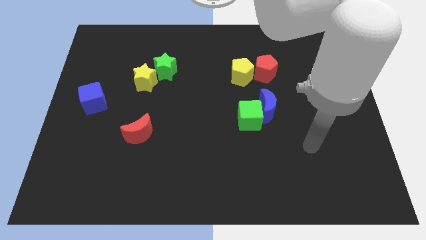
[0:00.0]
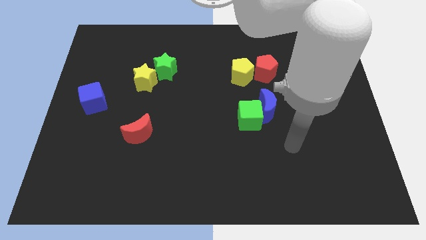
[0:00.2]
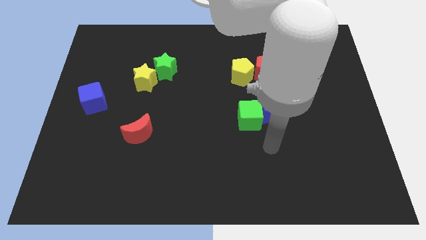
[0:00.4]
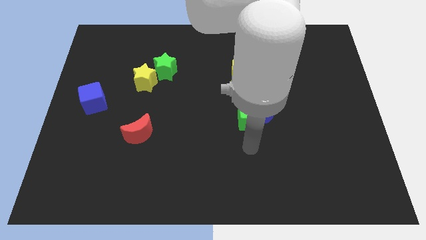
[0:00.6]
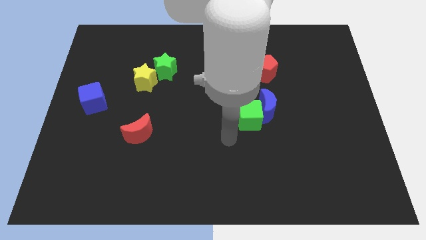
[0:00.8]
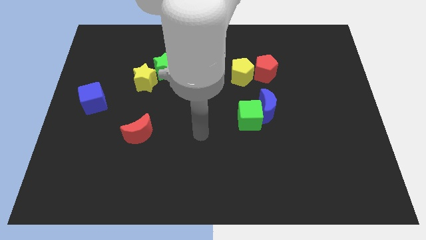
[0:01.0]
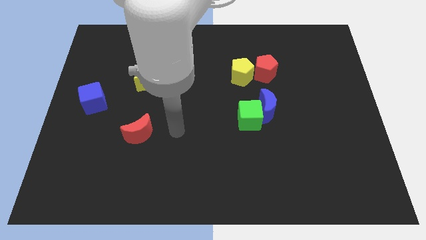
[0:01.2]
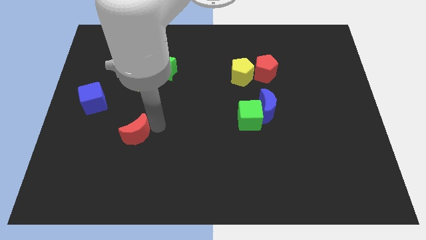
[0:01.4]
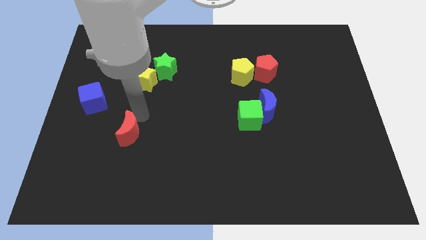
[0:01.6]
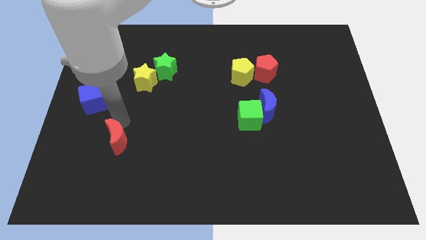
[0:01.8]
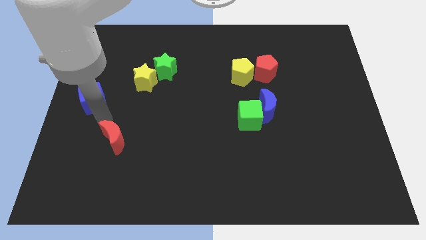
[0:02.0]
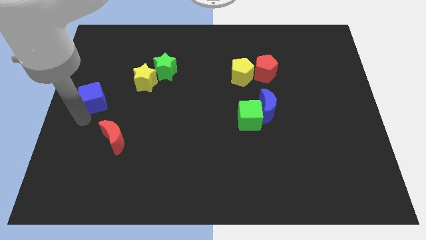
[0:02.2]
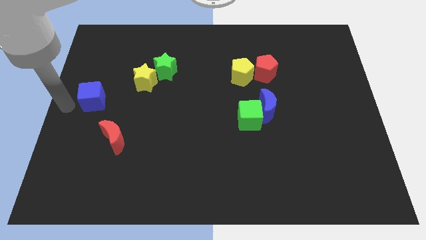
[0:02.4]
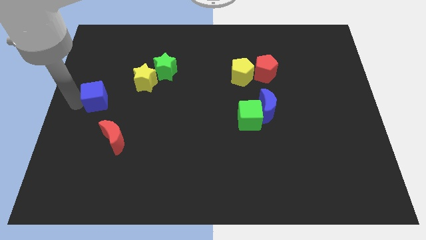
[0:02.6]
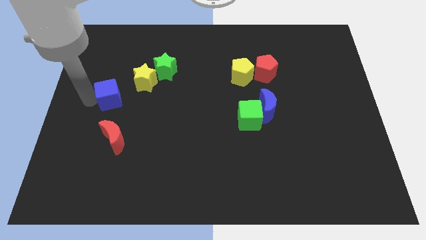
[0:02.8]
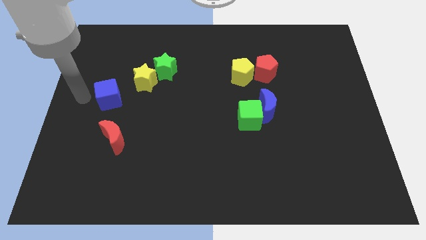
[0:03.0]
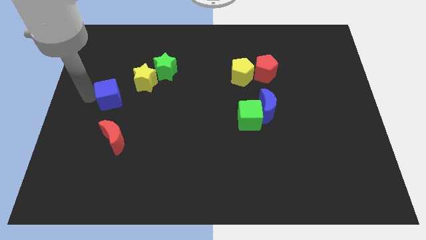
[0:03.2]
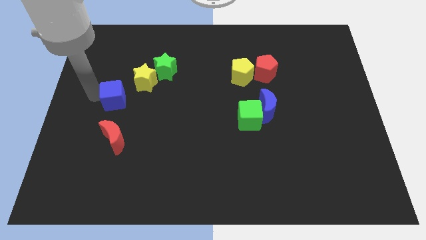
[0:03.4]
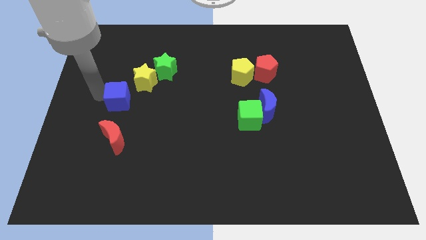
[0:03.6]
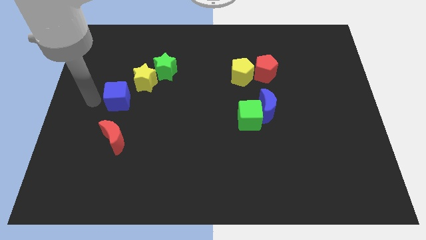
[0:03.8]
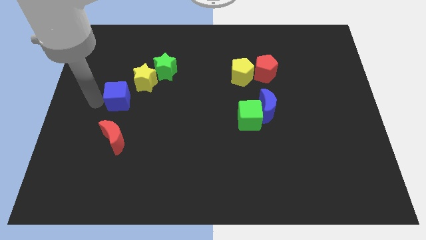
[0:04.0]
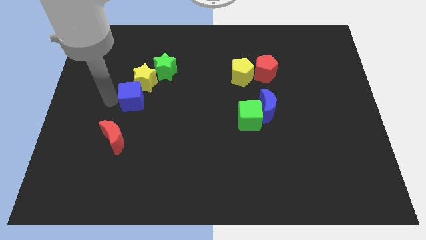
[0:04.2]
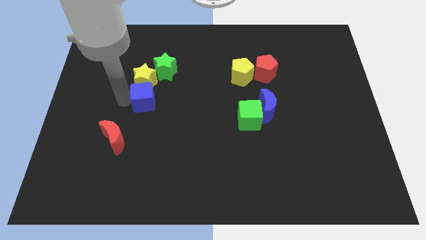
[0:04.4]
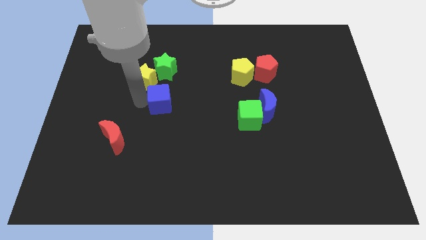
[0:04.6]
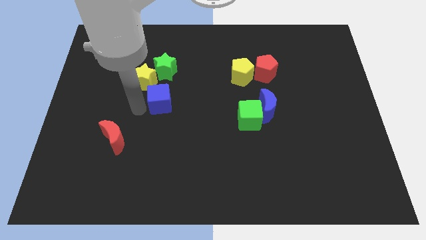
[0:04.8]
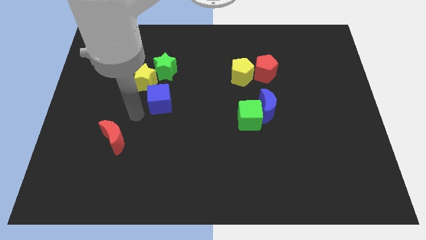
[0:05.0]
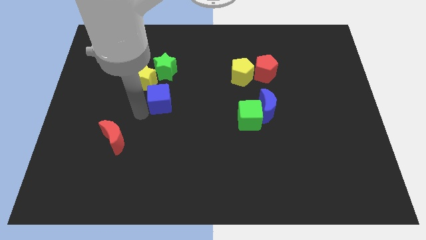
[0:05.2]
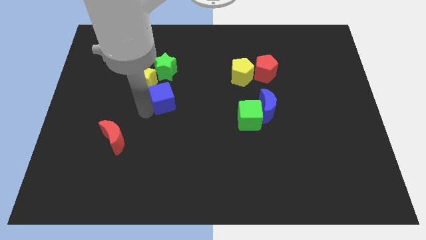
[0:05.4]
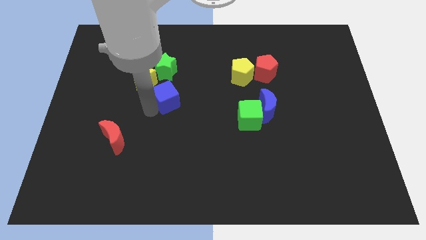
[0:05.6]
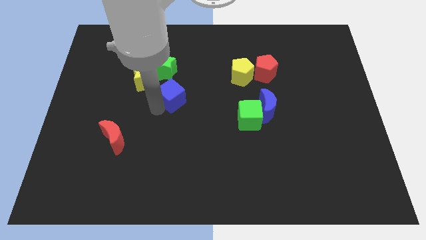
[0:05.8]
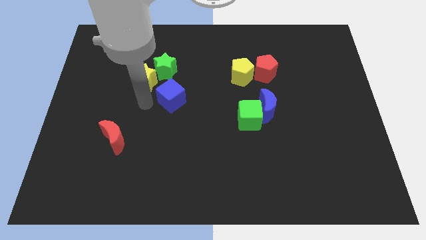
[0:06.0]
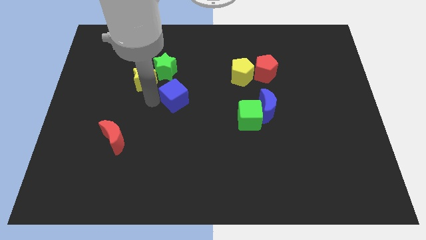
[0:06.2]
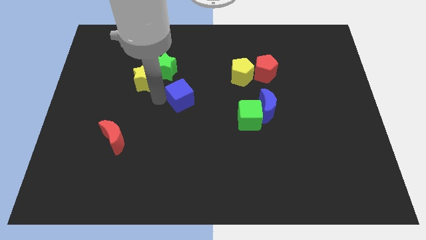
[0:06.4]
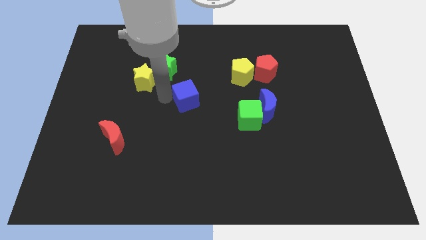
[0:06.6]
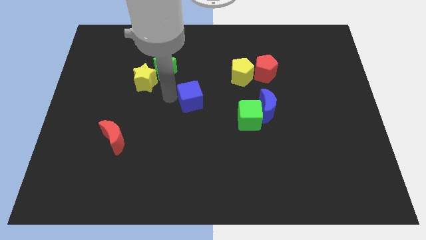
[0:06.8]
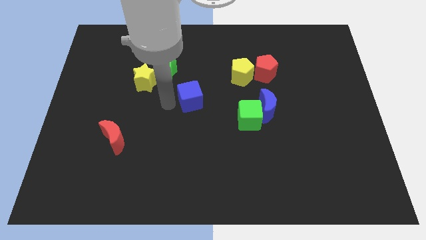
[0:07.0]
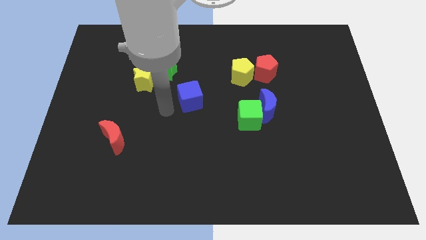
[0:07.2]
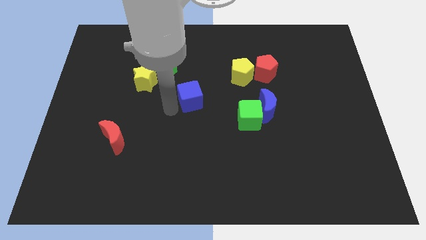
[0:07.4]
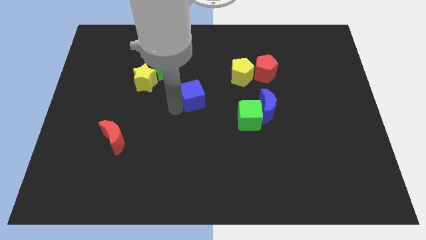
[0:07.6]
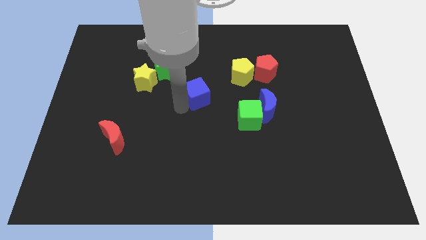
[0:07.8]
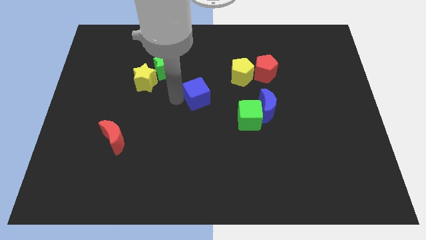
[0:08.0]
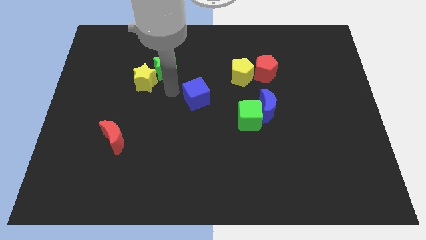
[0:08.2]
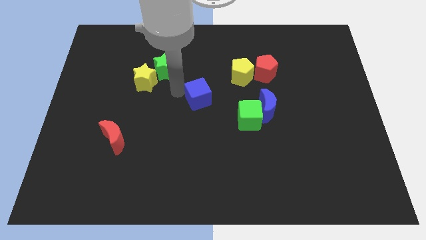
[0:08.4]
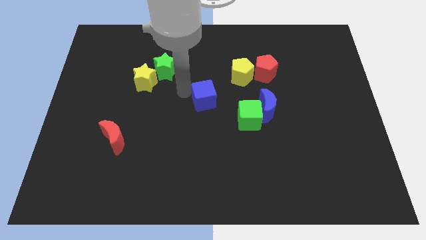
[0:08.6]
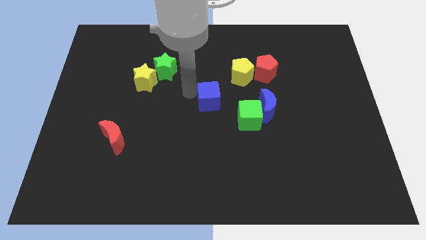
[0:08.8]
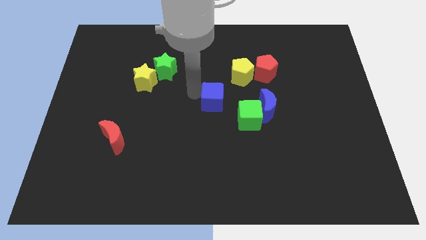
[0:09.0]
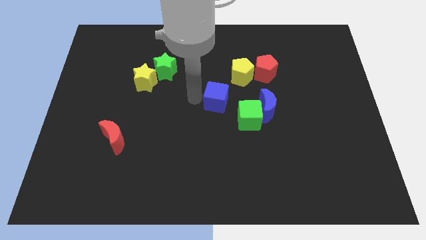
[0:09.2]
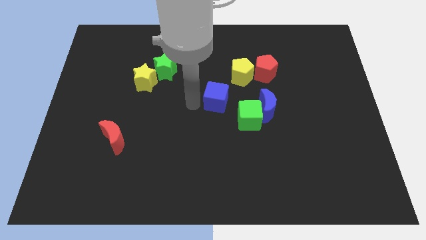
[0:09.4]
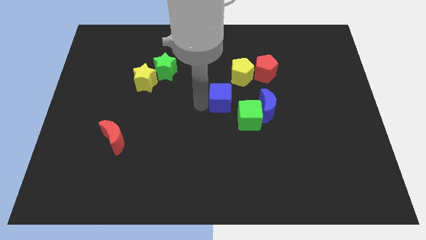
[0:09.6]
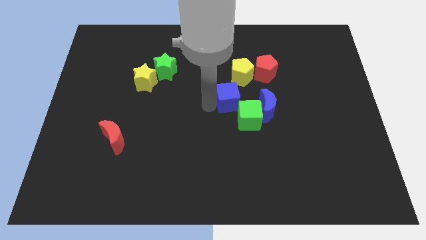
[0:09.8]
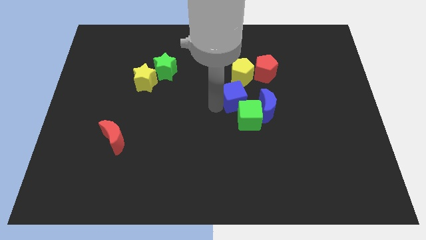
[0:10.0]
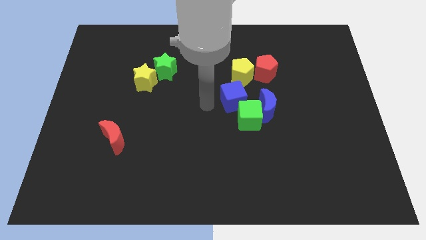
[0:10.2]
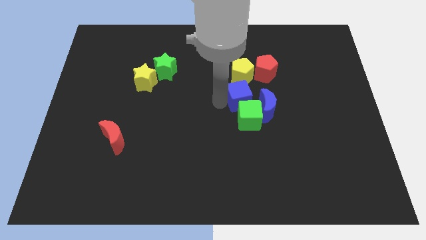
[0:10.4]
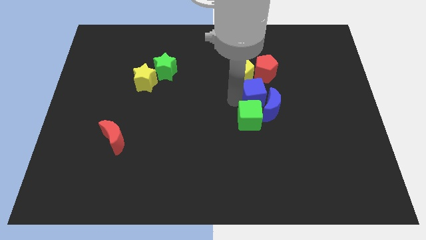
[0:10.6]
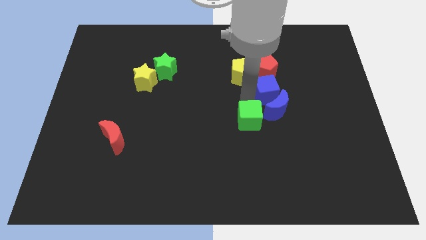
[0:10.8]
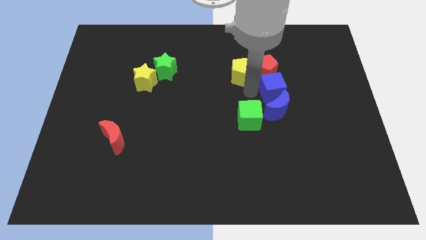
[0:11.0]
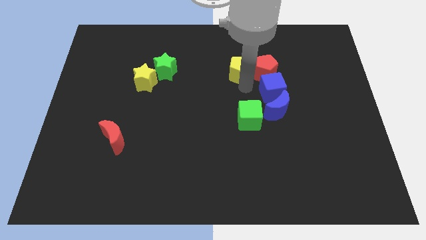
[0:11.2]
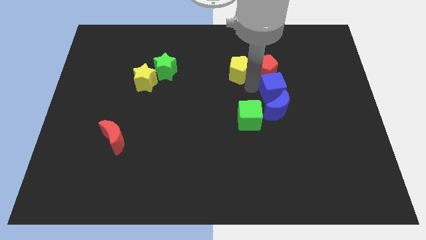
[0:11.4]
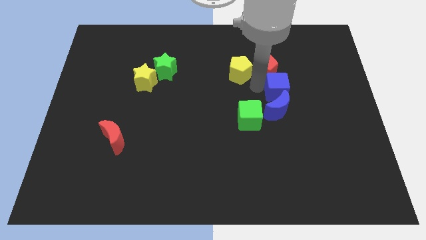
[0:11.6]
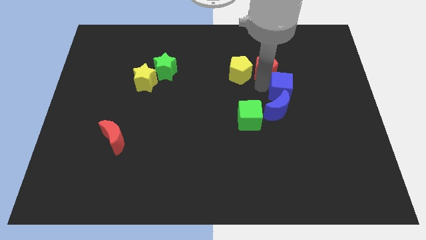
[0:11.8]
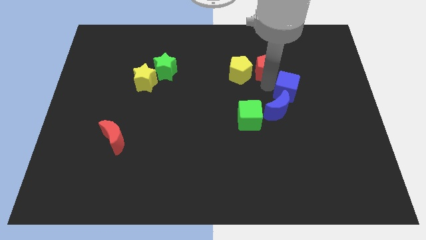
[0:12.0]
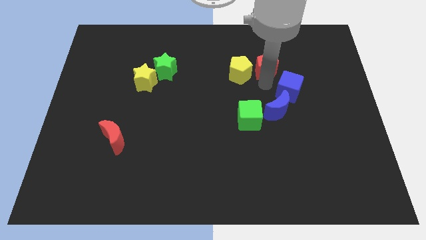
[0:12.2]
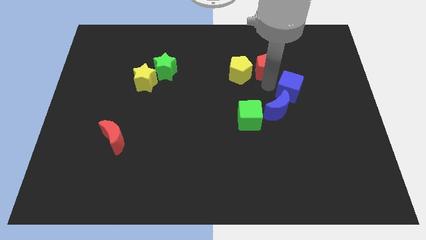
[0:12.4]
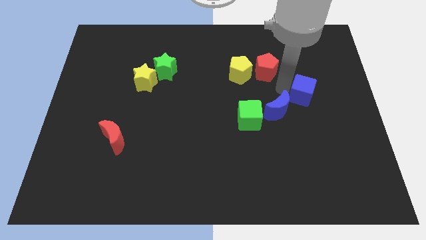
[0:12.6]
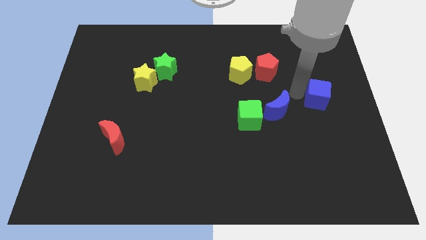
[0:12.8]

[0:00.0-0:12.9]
put the blue cube to the right side of the board
